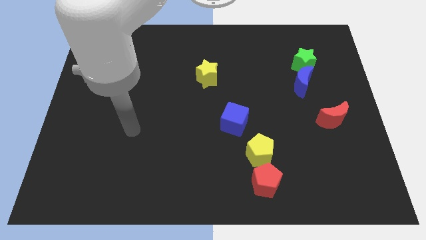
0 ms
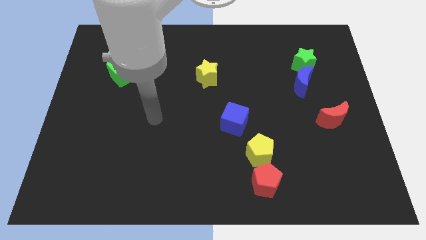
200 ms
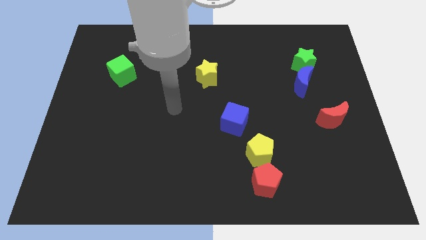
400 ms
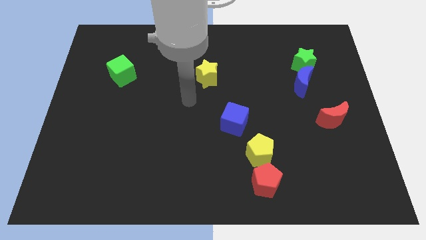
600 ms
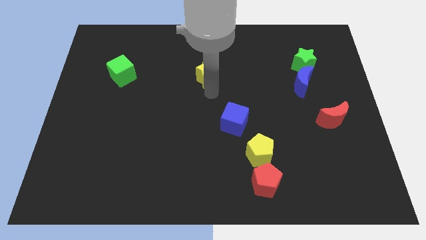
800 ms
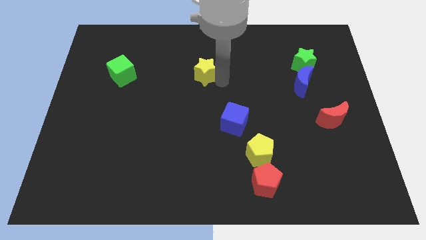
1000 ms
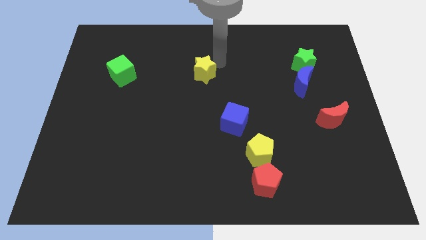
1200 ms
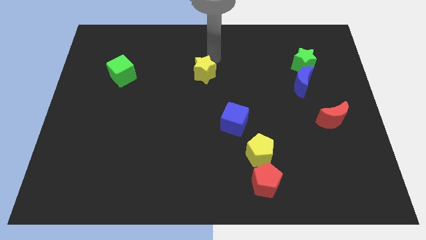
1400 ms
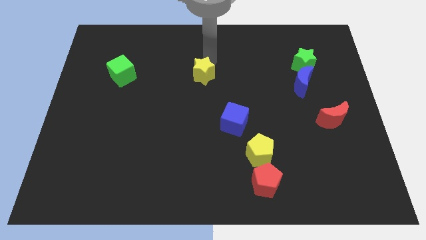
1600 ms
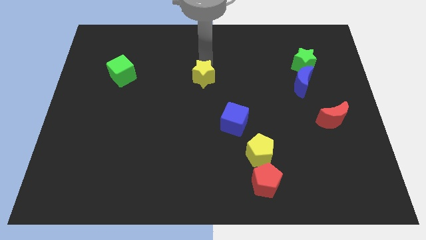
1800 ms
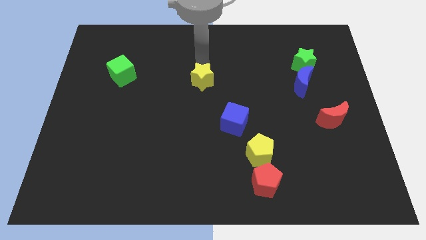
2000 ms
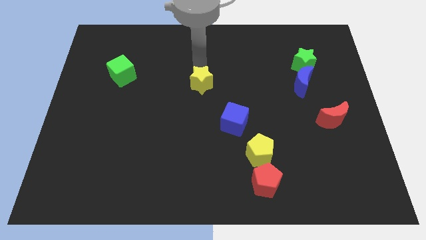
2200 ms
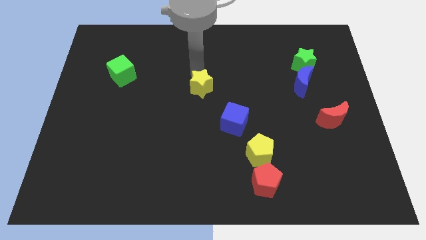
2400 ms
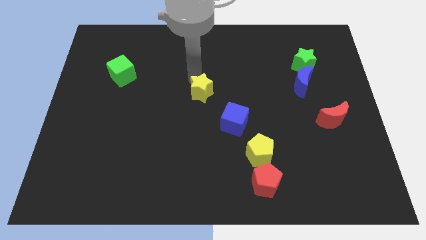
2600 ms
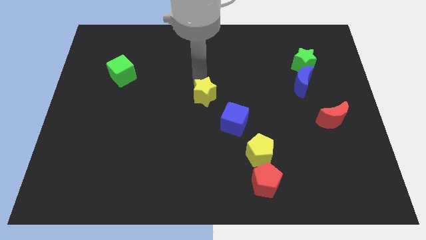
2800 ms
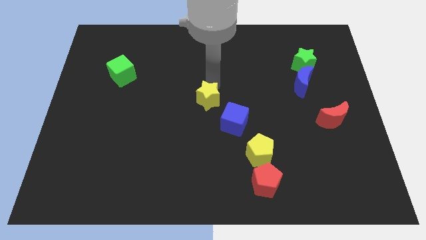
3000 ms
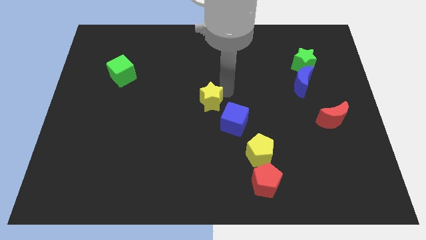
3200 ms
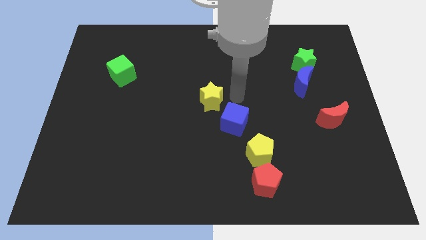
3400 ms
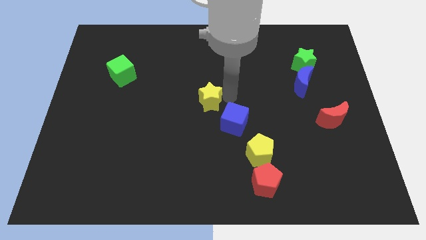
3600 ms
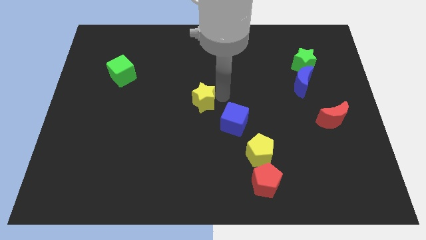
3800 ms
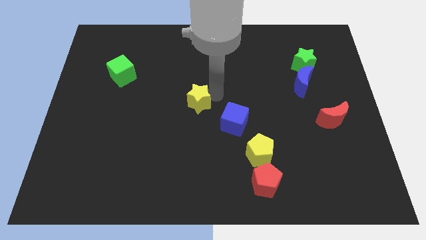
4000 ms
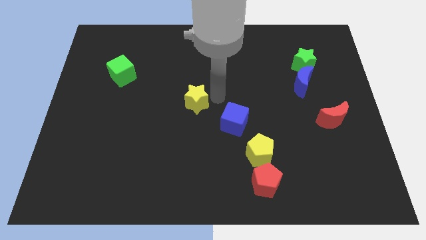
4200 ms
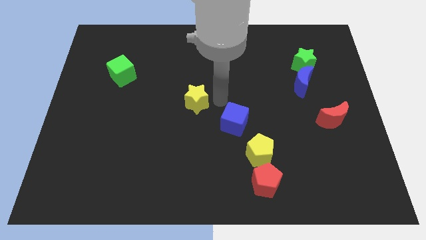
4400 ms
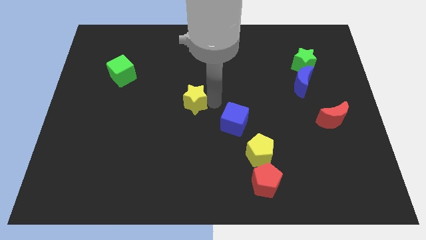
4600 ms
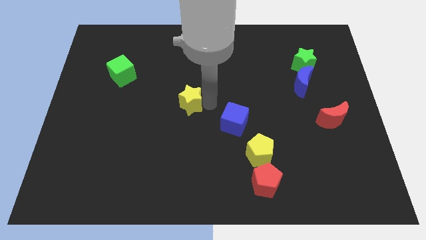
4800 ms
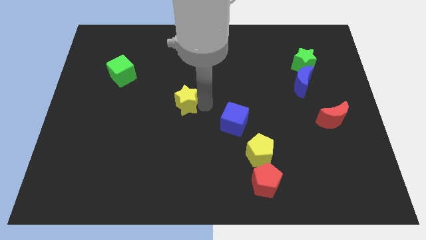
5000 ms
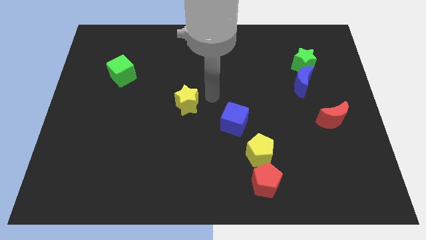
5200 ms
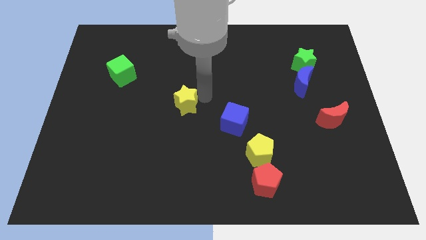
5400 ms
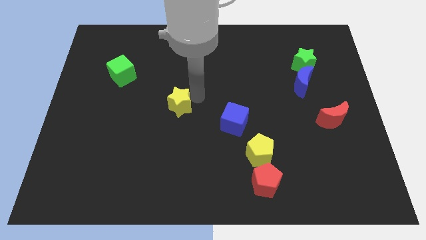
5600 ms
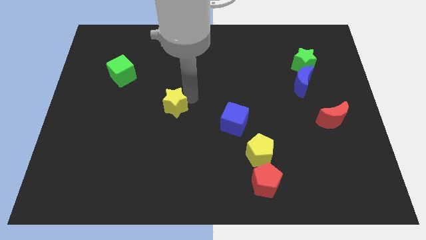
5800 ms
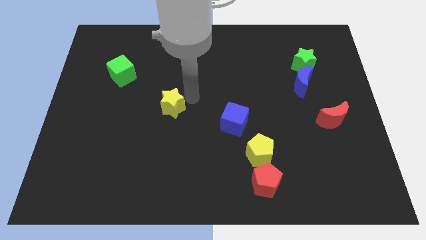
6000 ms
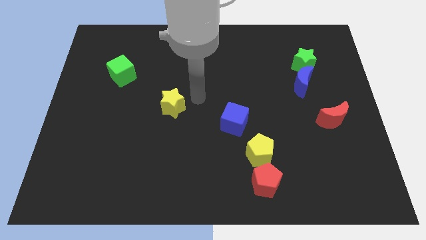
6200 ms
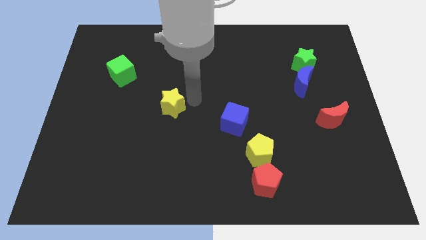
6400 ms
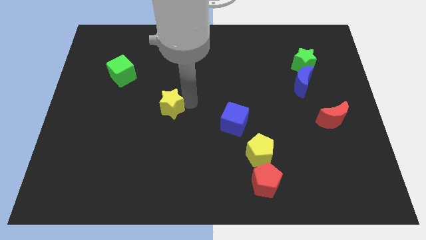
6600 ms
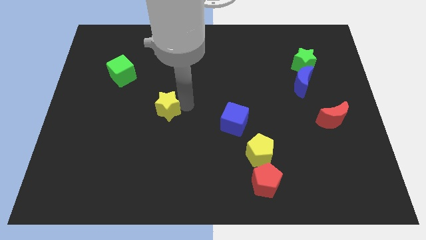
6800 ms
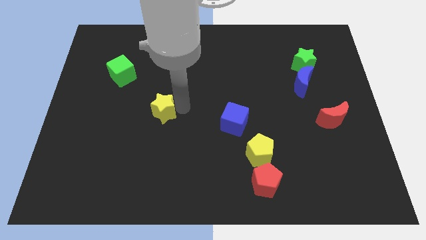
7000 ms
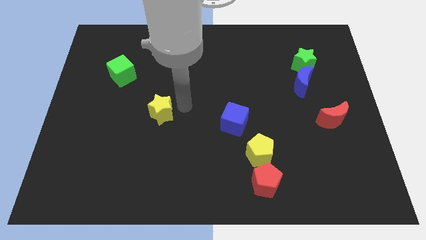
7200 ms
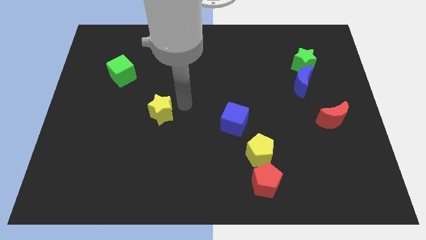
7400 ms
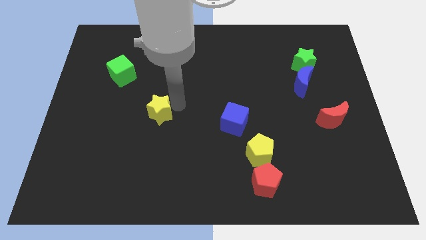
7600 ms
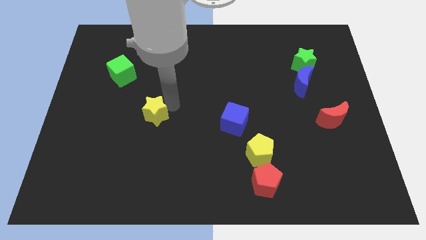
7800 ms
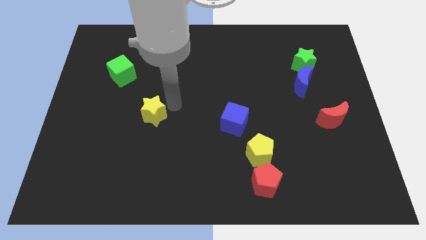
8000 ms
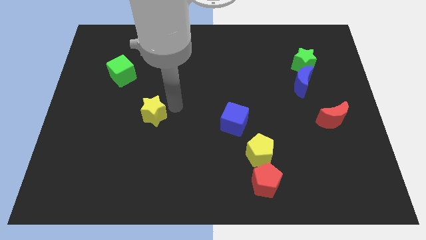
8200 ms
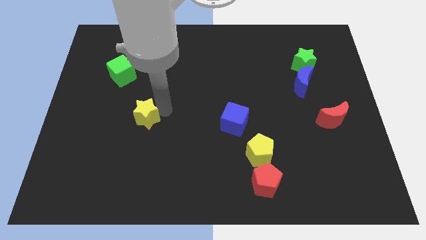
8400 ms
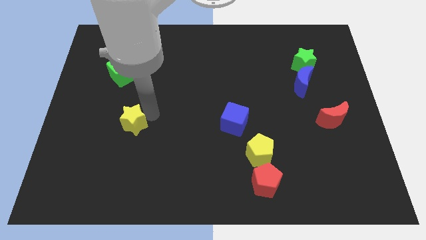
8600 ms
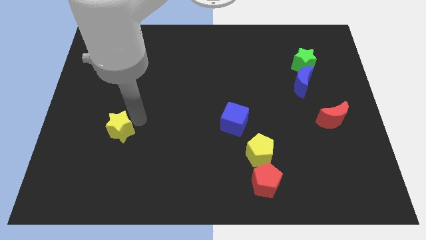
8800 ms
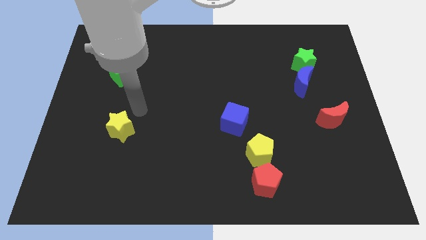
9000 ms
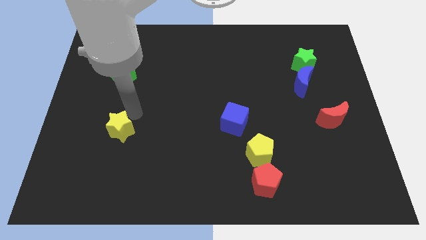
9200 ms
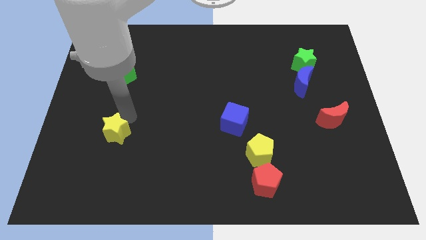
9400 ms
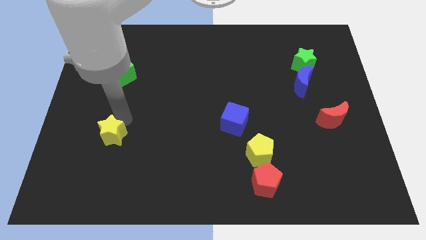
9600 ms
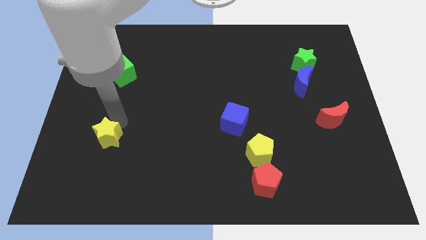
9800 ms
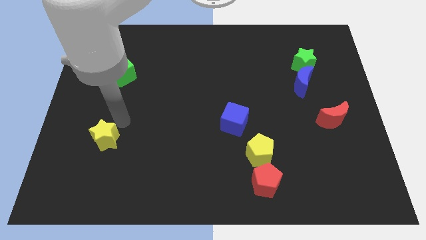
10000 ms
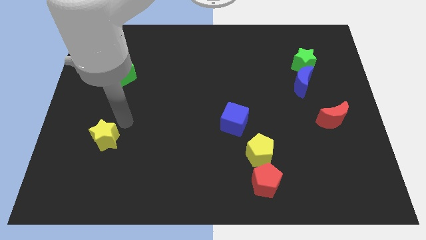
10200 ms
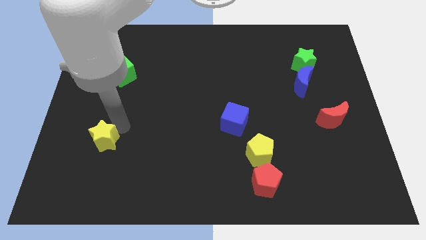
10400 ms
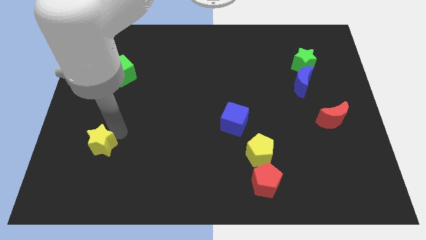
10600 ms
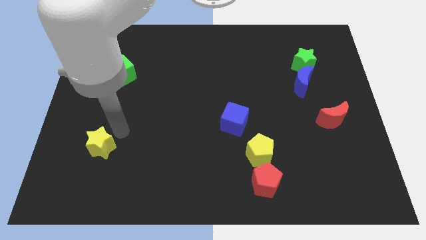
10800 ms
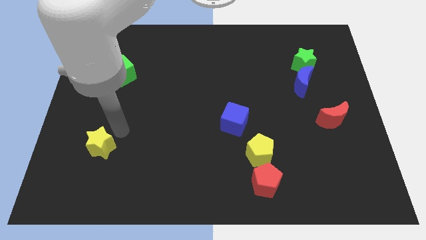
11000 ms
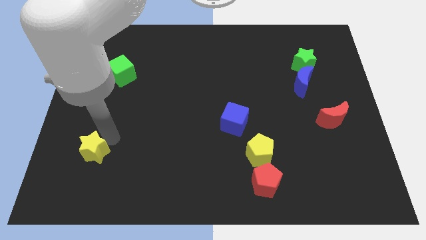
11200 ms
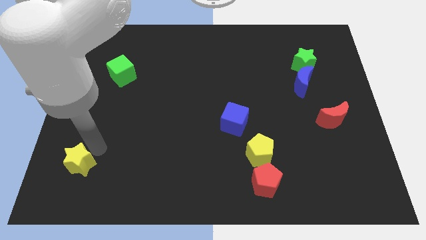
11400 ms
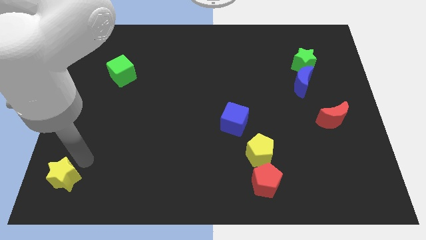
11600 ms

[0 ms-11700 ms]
push the yellow star to the bottom left

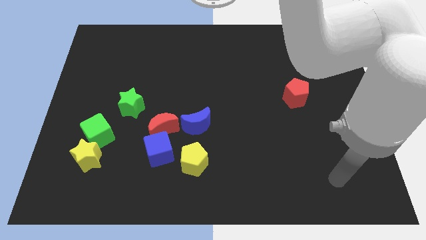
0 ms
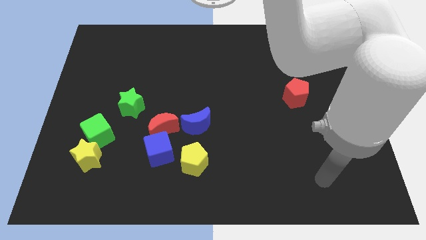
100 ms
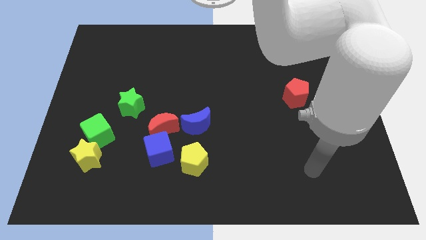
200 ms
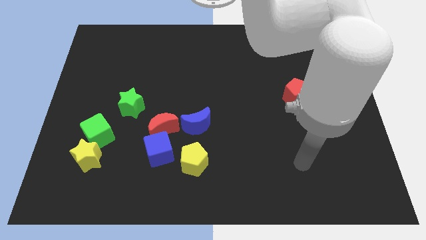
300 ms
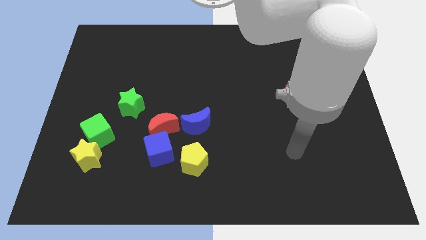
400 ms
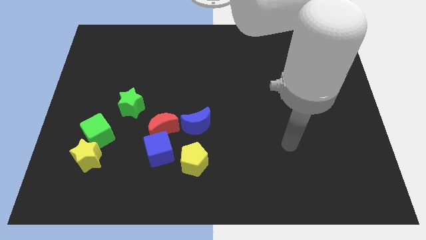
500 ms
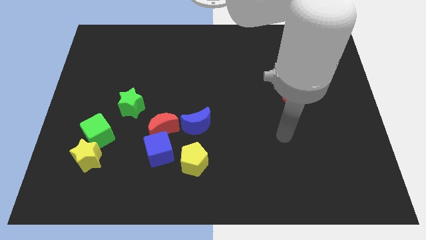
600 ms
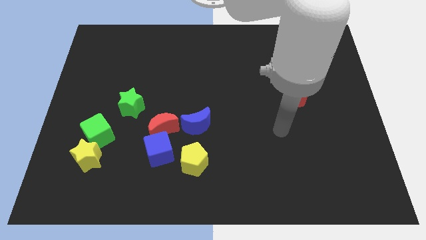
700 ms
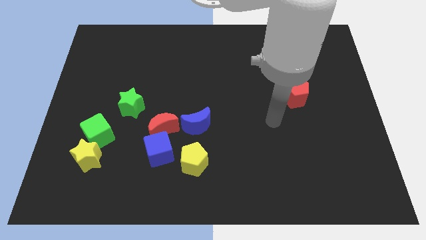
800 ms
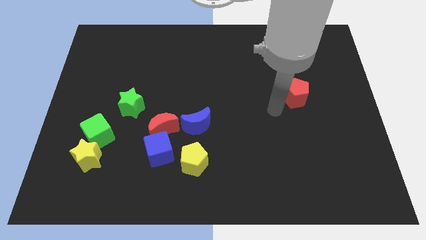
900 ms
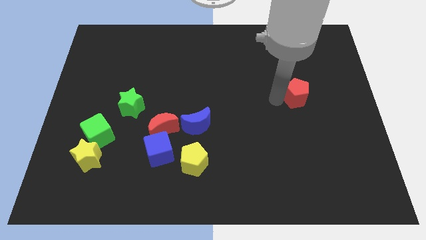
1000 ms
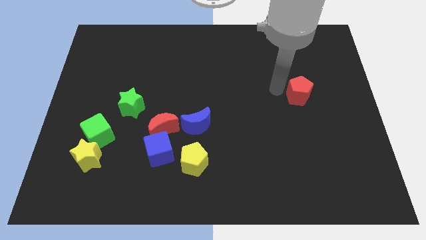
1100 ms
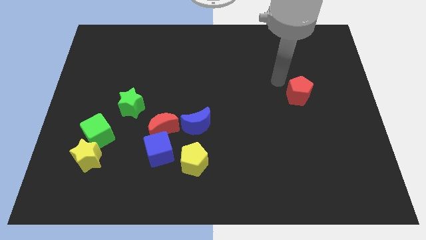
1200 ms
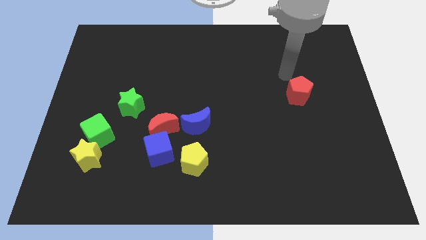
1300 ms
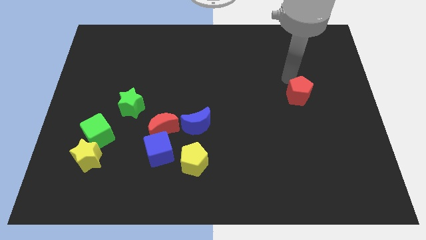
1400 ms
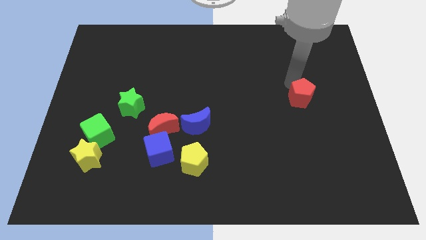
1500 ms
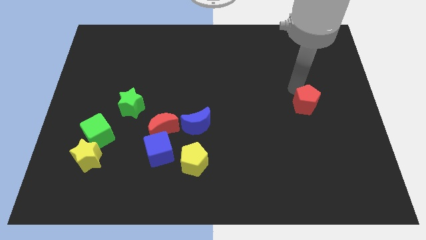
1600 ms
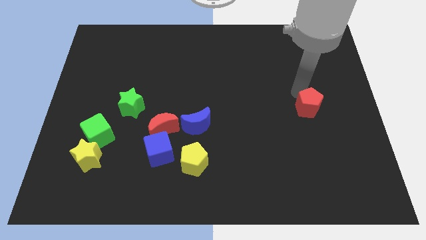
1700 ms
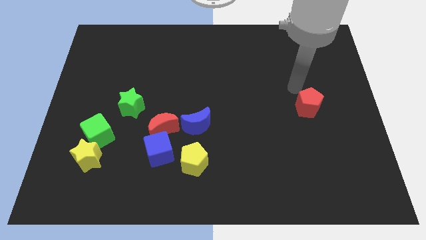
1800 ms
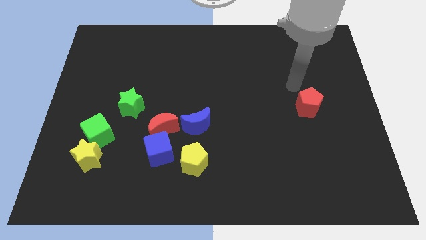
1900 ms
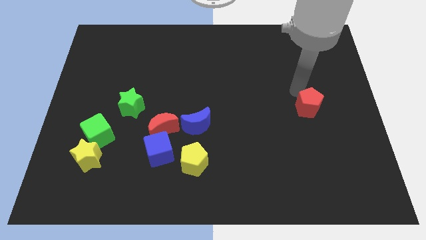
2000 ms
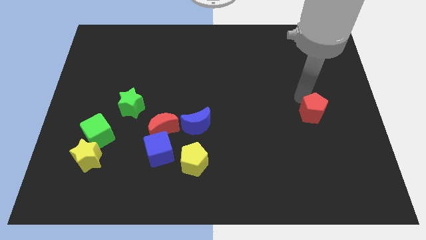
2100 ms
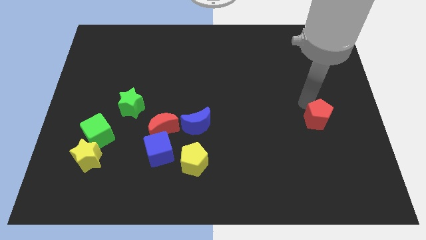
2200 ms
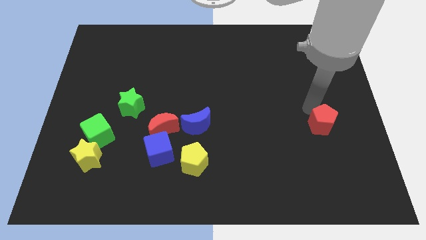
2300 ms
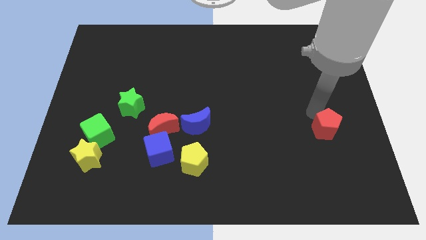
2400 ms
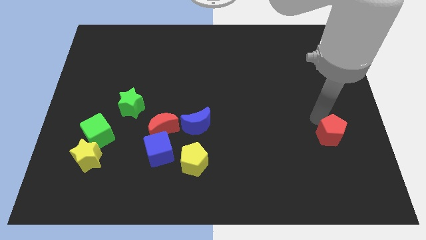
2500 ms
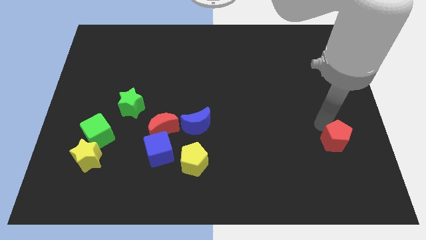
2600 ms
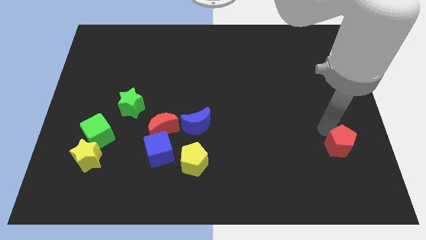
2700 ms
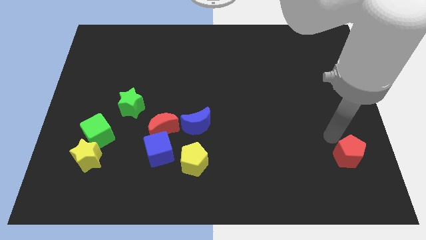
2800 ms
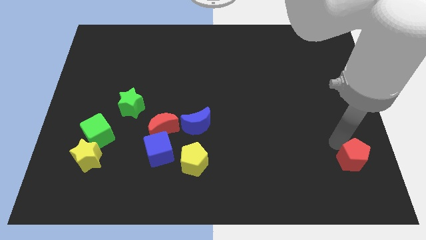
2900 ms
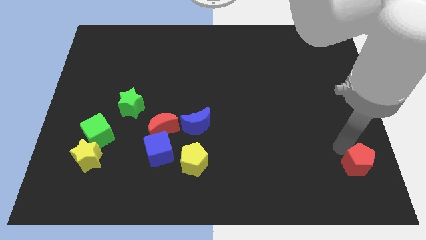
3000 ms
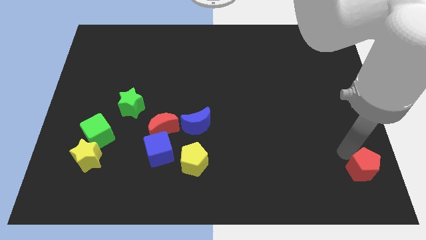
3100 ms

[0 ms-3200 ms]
move the red pentagon to the bottom right of the board
